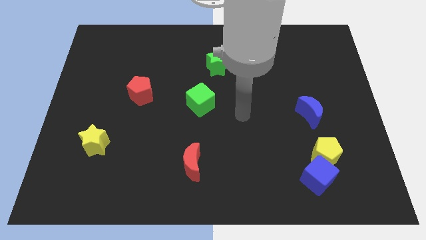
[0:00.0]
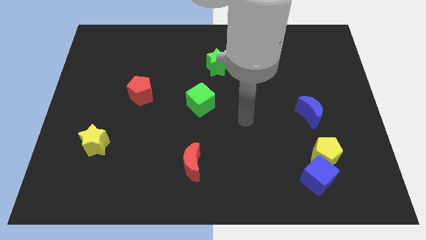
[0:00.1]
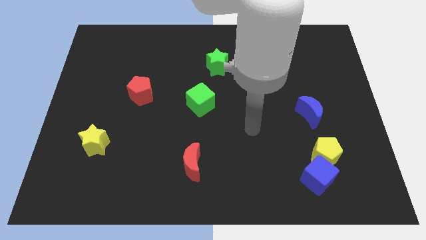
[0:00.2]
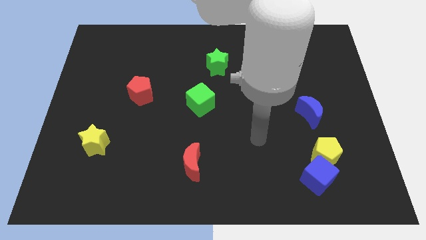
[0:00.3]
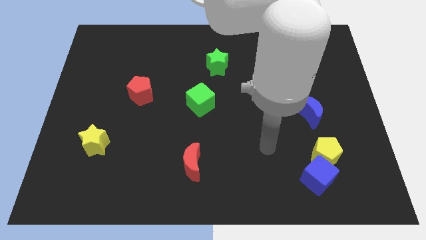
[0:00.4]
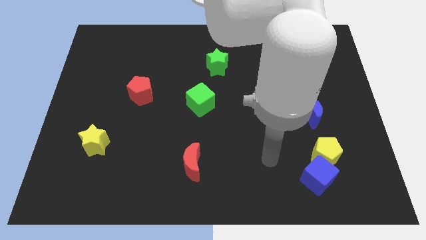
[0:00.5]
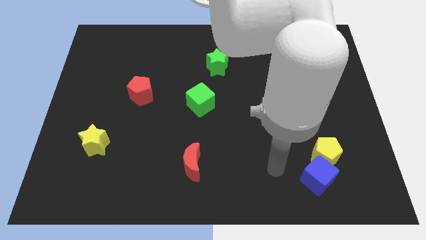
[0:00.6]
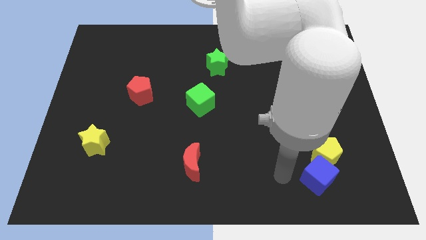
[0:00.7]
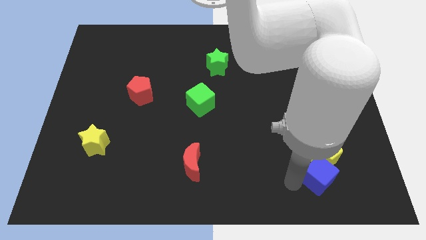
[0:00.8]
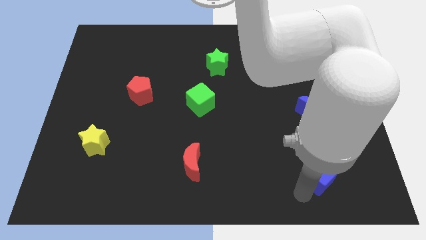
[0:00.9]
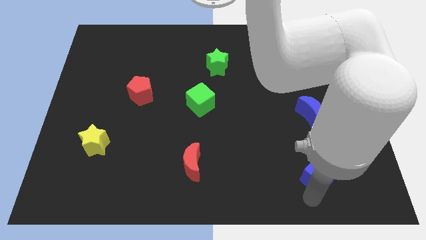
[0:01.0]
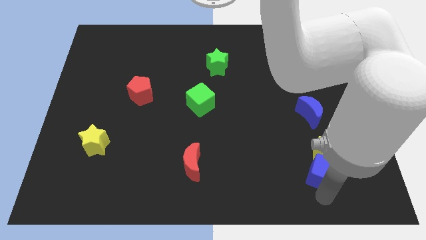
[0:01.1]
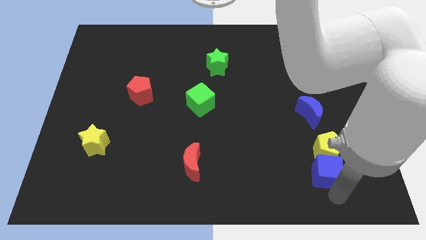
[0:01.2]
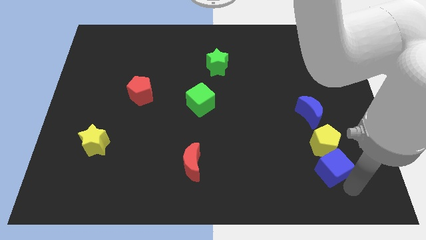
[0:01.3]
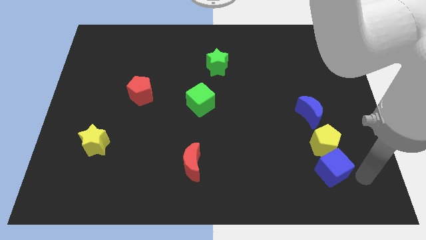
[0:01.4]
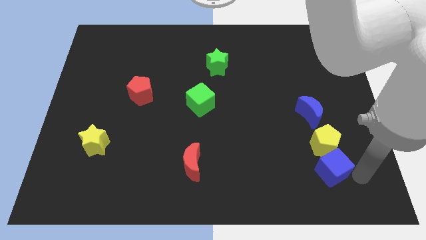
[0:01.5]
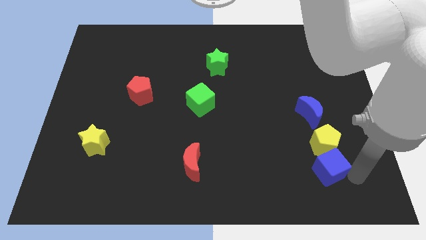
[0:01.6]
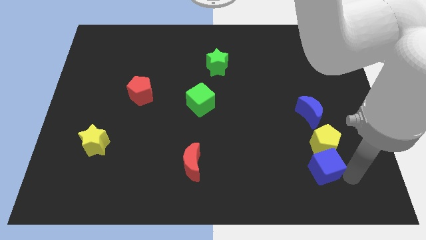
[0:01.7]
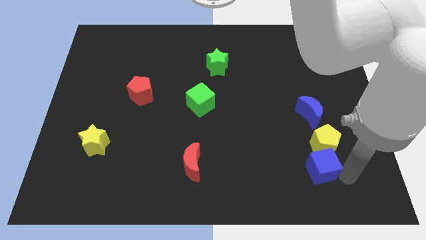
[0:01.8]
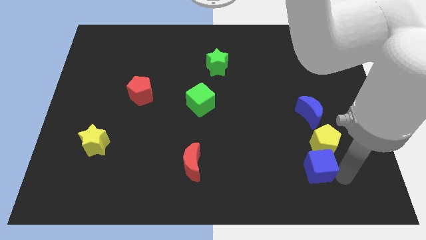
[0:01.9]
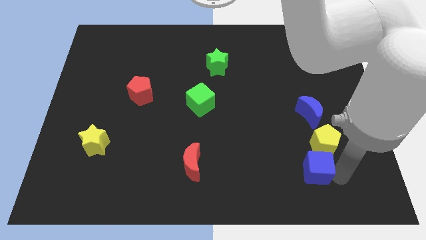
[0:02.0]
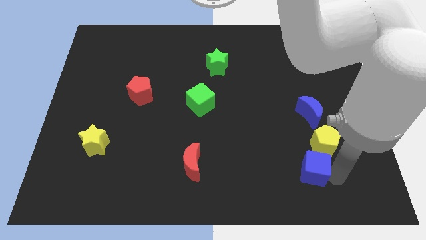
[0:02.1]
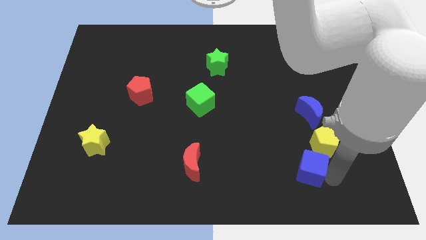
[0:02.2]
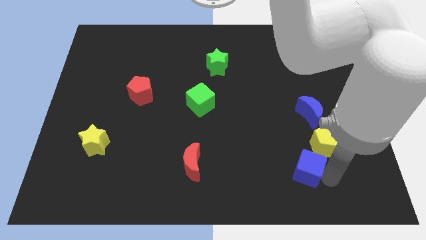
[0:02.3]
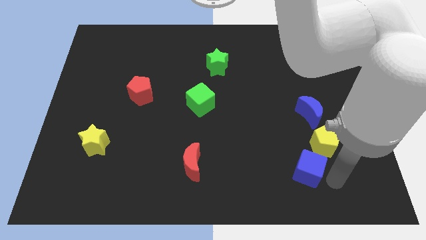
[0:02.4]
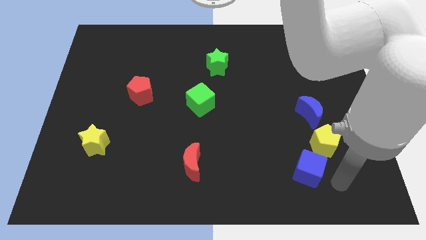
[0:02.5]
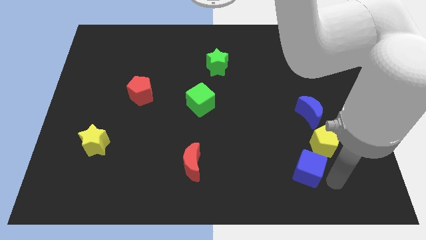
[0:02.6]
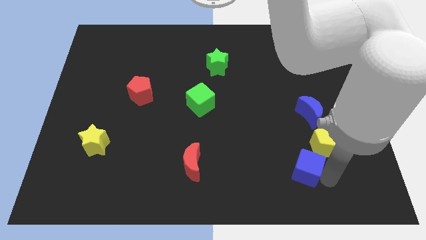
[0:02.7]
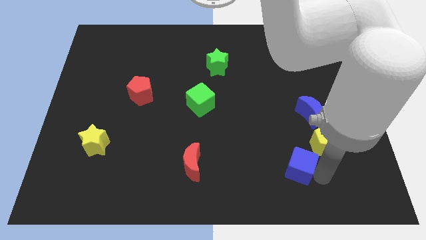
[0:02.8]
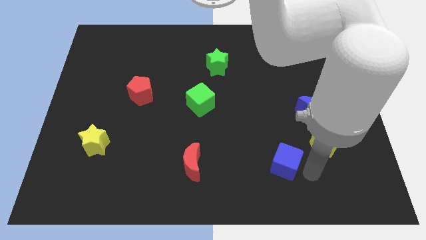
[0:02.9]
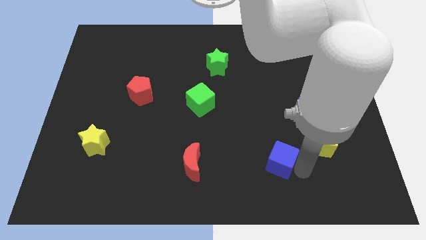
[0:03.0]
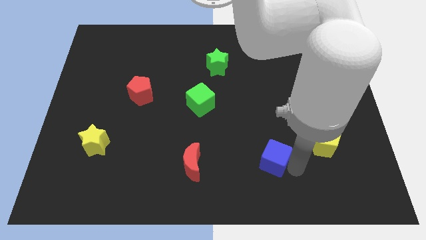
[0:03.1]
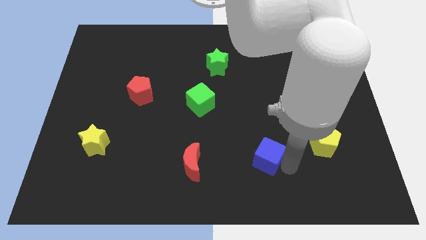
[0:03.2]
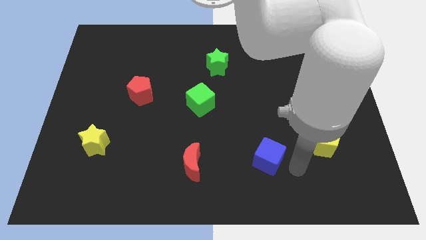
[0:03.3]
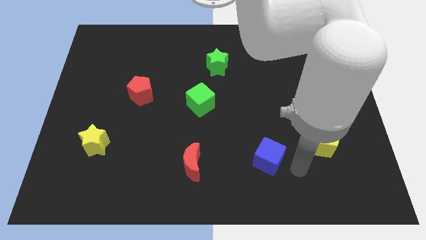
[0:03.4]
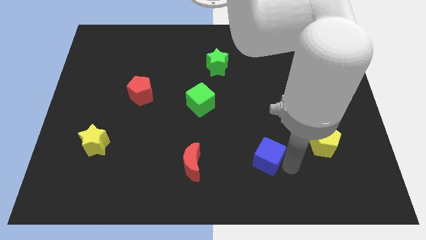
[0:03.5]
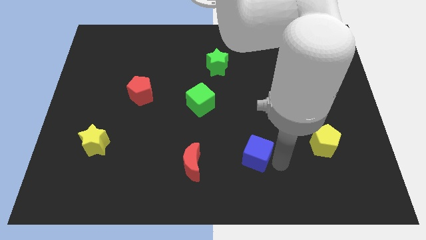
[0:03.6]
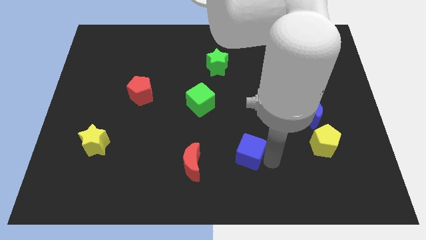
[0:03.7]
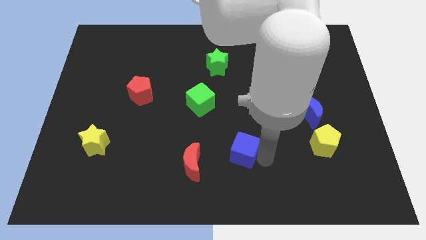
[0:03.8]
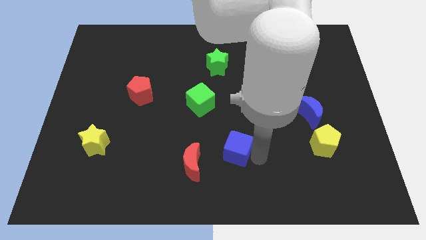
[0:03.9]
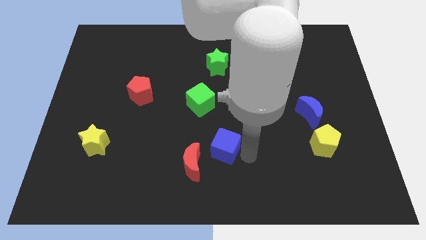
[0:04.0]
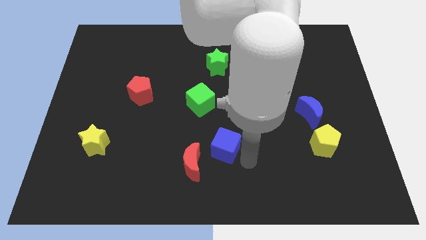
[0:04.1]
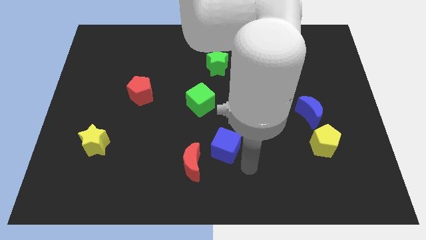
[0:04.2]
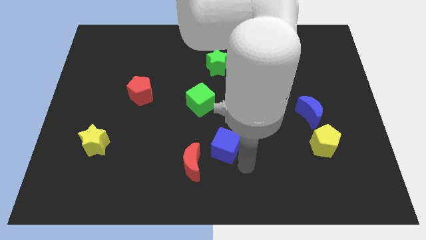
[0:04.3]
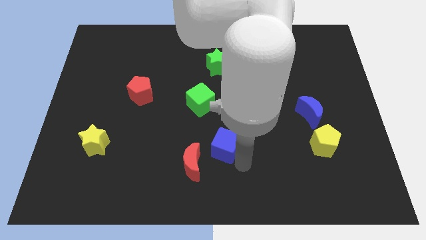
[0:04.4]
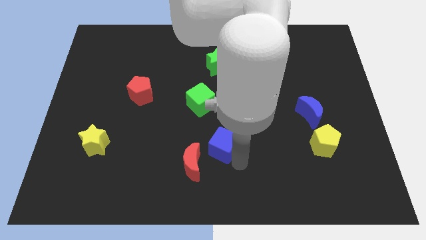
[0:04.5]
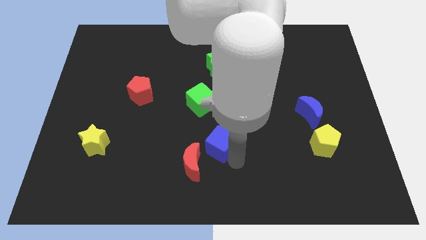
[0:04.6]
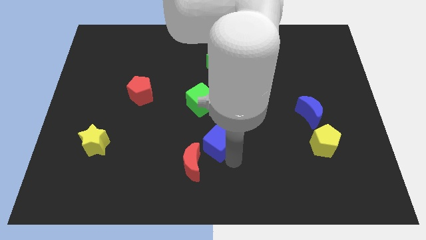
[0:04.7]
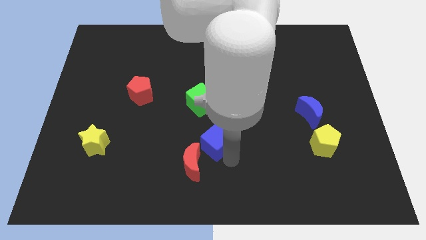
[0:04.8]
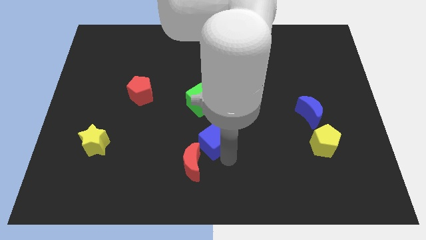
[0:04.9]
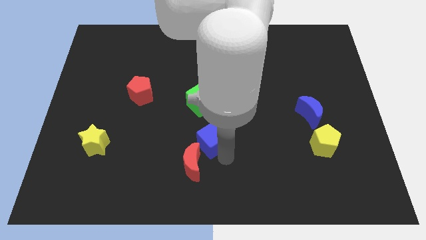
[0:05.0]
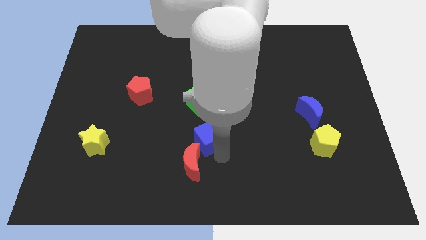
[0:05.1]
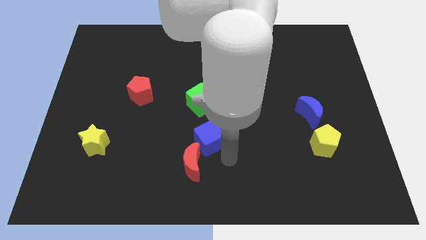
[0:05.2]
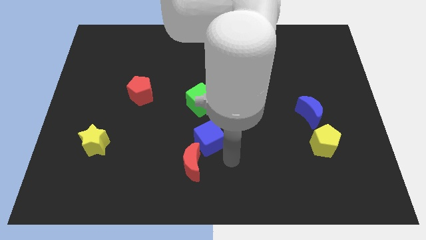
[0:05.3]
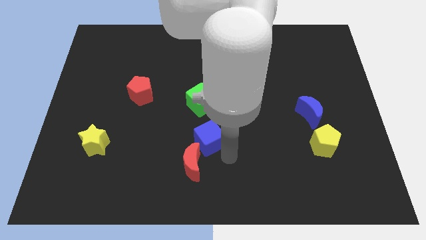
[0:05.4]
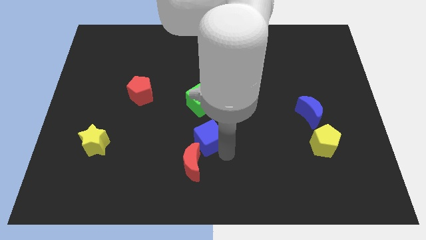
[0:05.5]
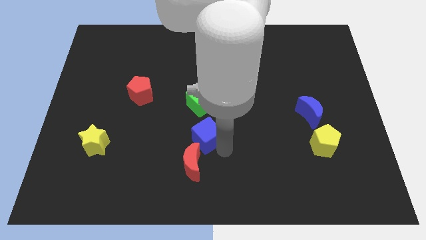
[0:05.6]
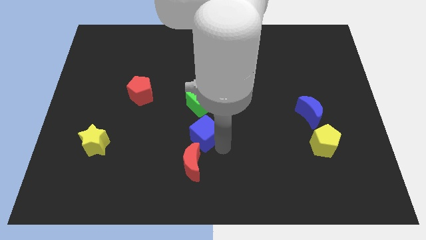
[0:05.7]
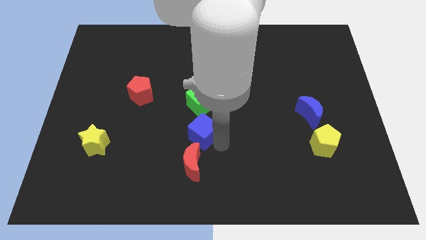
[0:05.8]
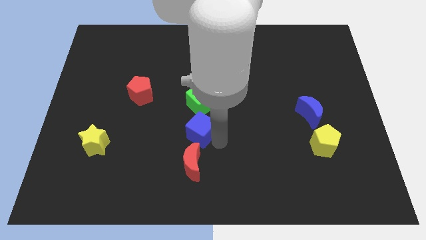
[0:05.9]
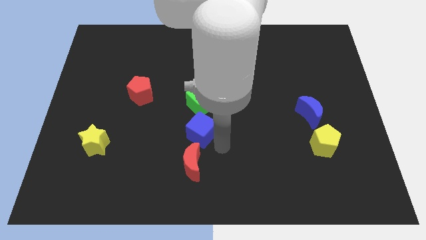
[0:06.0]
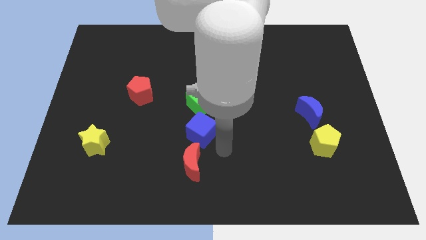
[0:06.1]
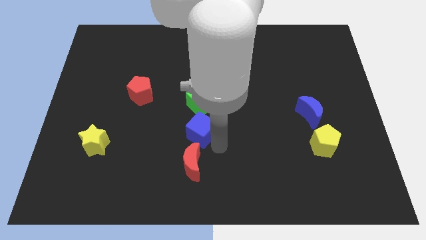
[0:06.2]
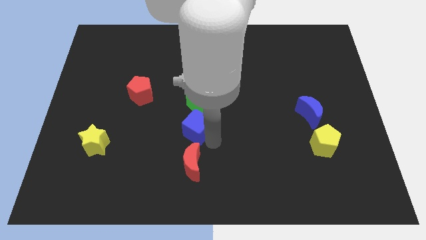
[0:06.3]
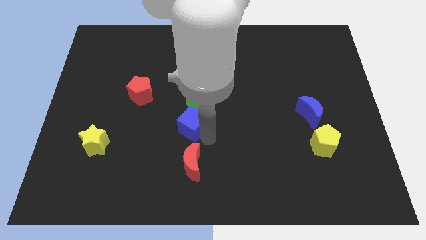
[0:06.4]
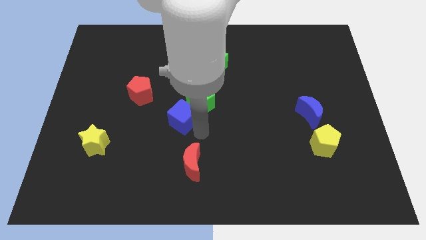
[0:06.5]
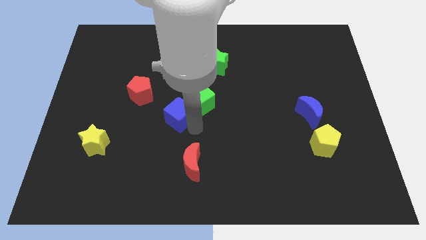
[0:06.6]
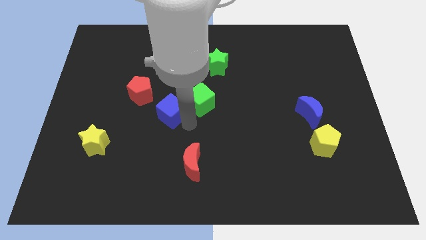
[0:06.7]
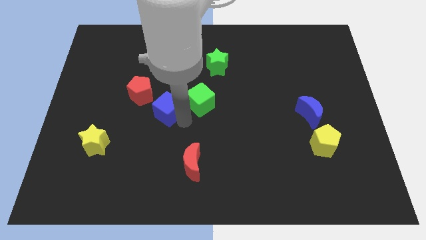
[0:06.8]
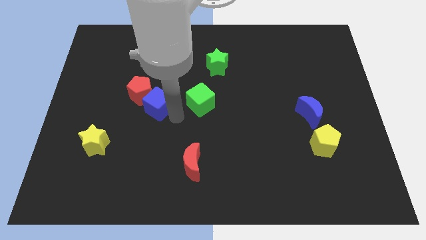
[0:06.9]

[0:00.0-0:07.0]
push the blue cube close to the red pentagon
